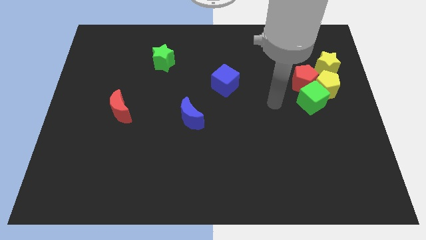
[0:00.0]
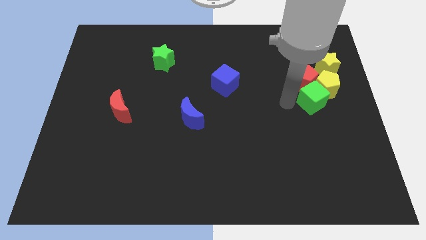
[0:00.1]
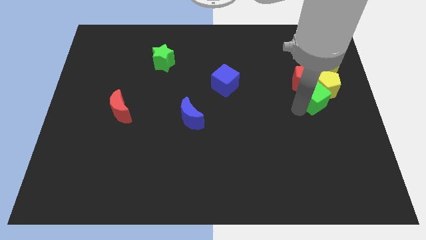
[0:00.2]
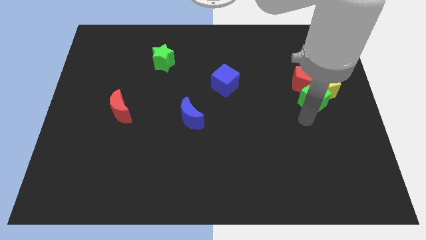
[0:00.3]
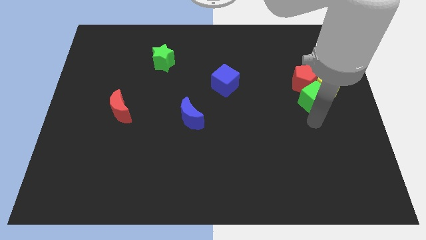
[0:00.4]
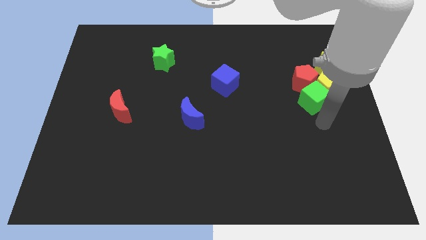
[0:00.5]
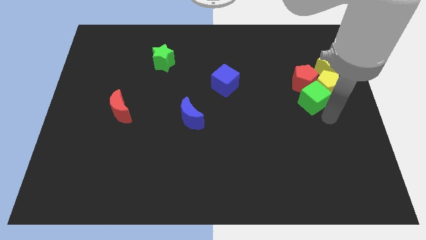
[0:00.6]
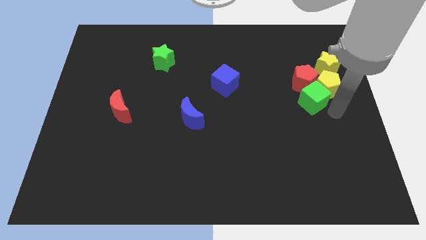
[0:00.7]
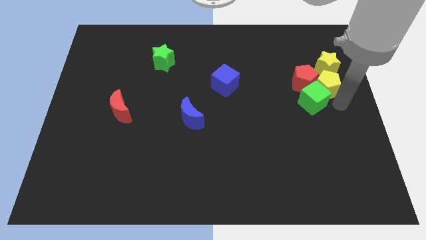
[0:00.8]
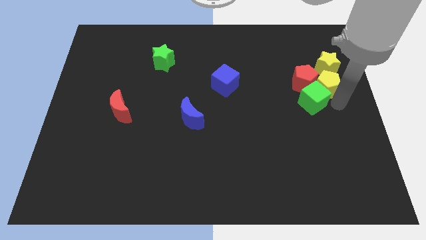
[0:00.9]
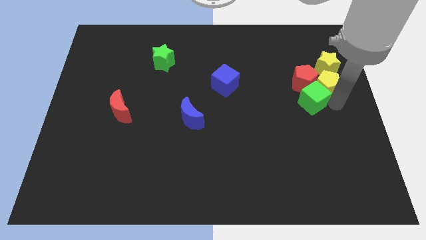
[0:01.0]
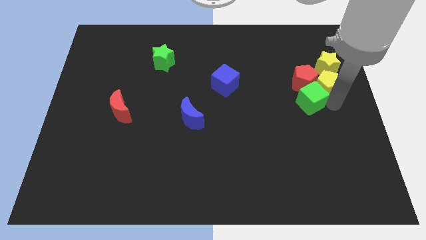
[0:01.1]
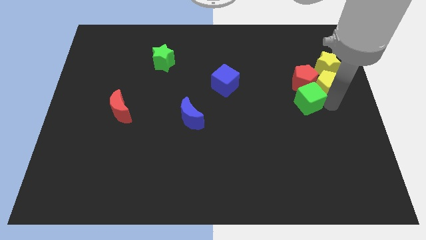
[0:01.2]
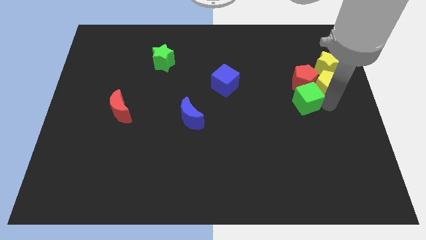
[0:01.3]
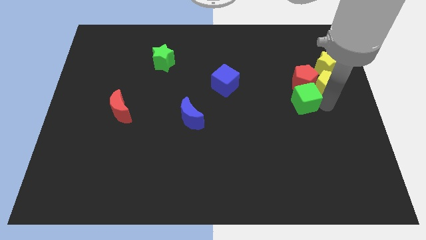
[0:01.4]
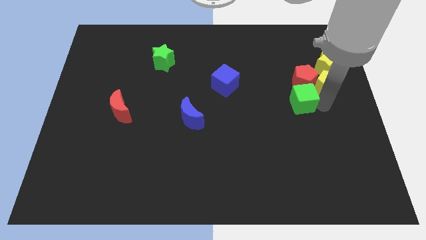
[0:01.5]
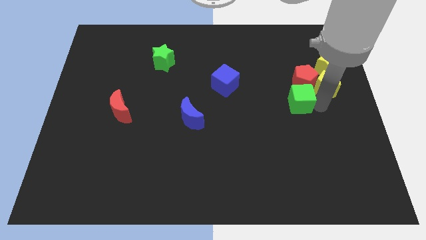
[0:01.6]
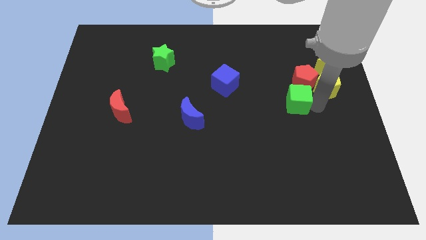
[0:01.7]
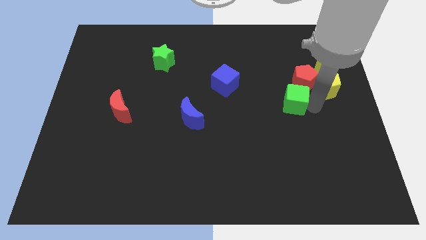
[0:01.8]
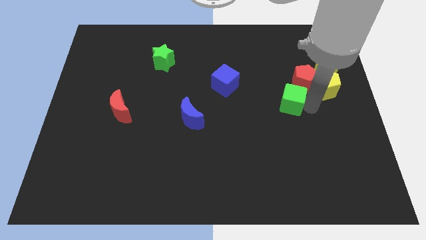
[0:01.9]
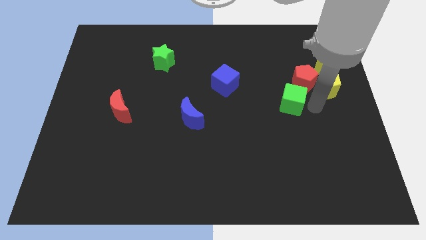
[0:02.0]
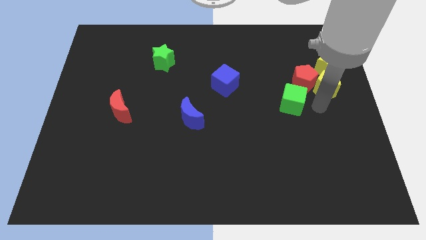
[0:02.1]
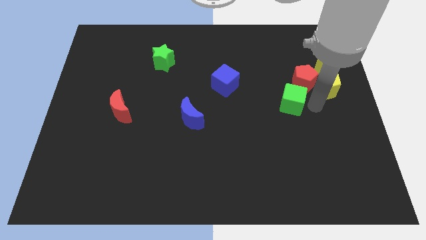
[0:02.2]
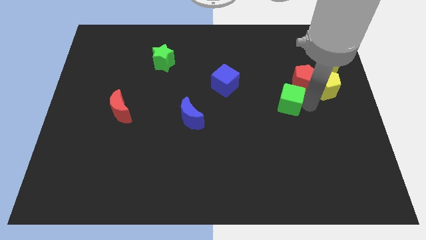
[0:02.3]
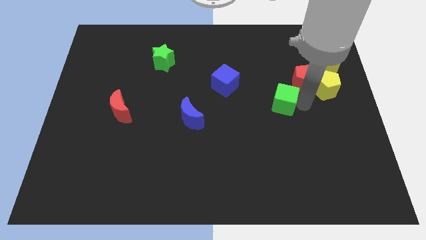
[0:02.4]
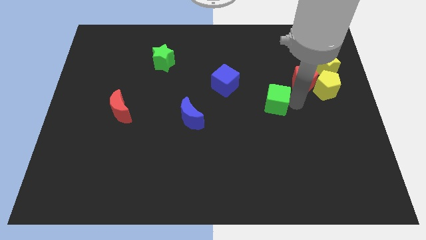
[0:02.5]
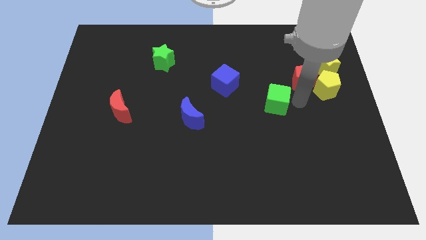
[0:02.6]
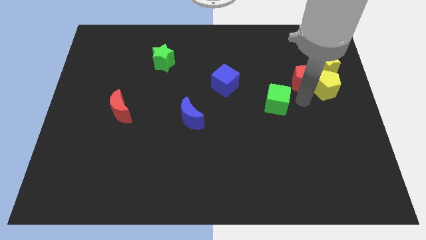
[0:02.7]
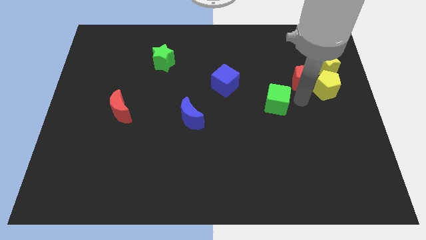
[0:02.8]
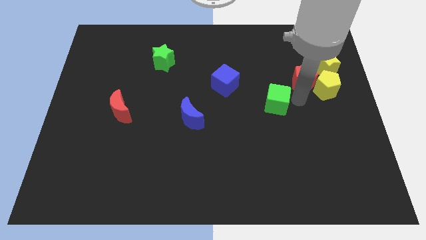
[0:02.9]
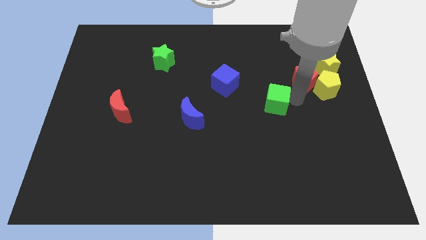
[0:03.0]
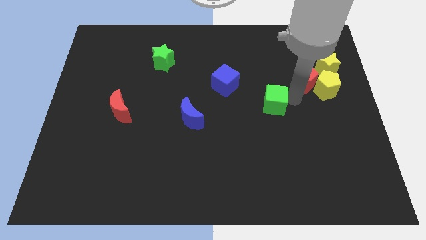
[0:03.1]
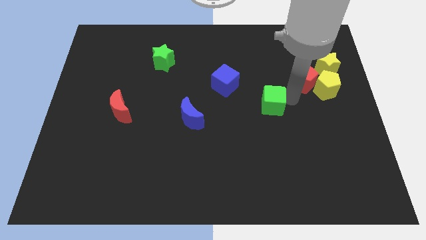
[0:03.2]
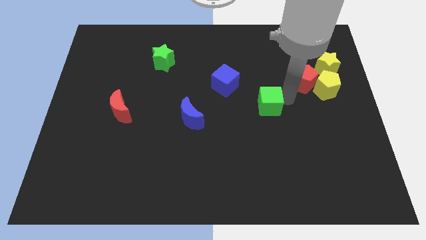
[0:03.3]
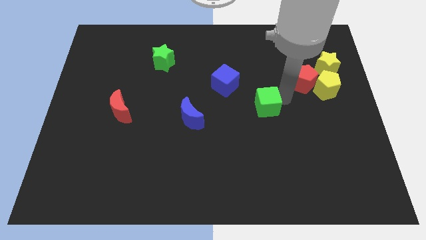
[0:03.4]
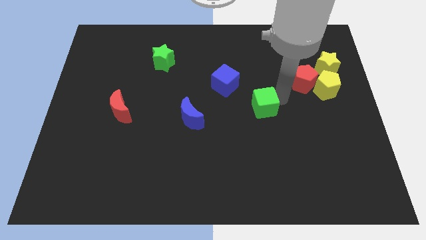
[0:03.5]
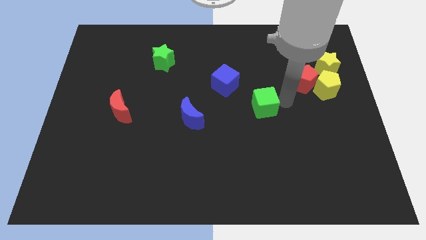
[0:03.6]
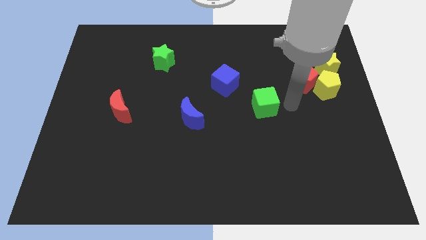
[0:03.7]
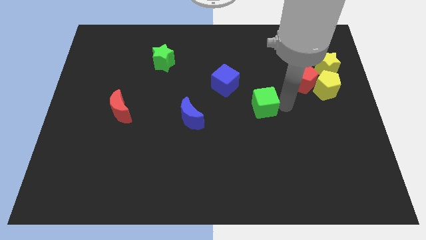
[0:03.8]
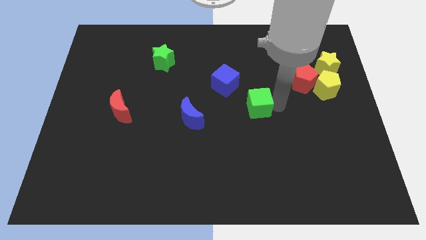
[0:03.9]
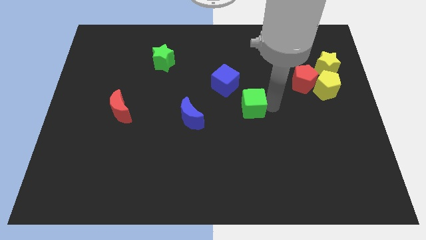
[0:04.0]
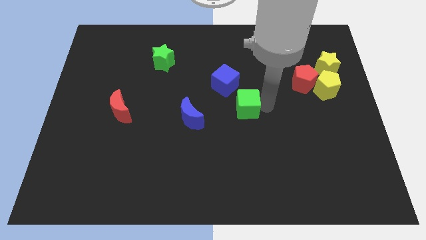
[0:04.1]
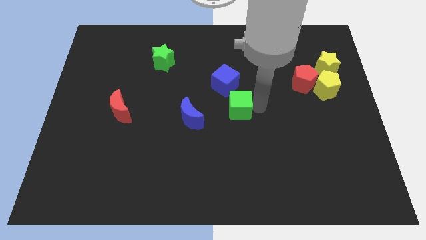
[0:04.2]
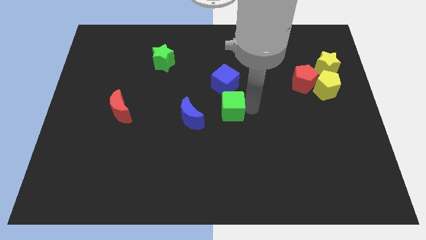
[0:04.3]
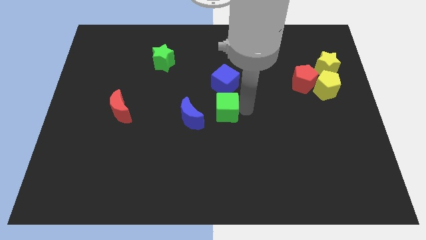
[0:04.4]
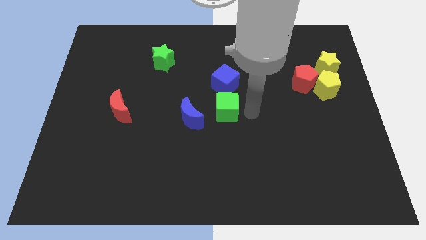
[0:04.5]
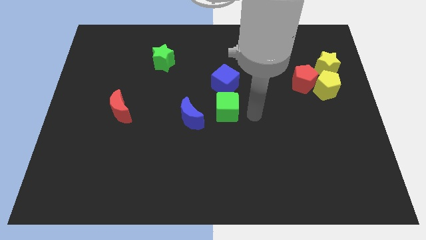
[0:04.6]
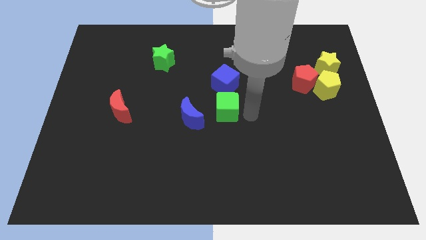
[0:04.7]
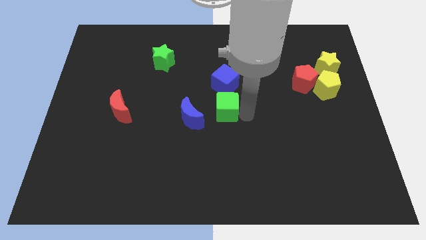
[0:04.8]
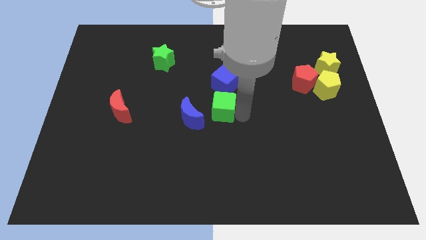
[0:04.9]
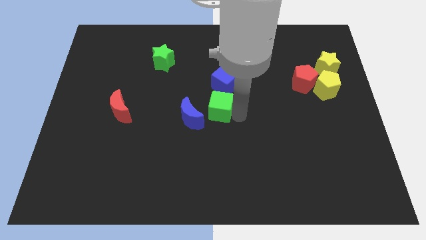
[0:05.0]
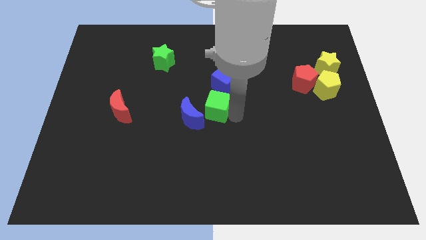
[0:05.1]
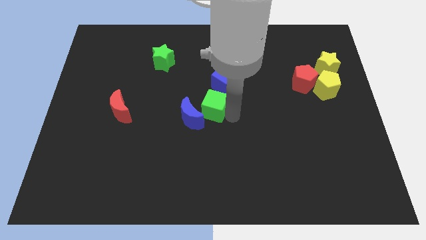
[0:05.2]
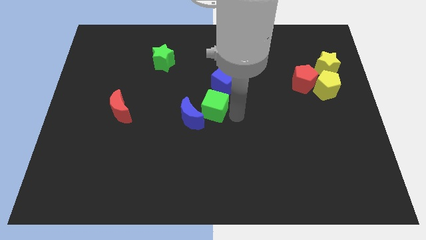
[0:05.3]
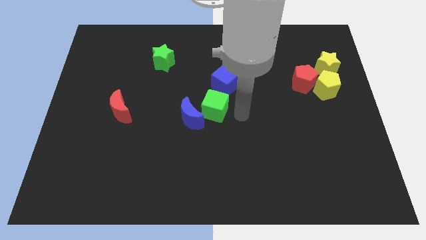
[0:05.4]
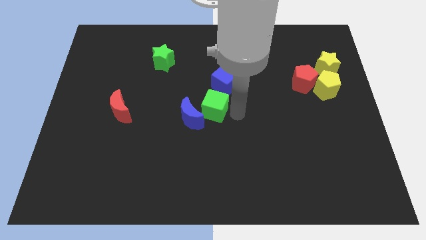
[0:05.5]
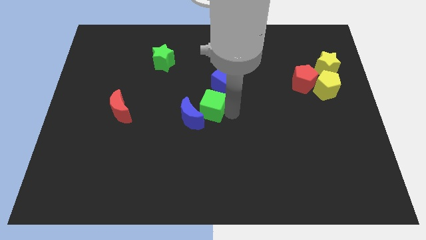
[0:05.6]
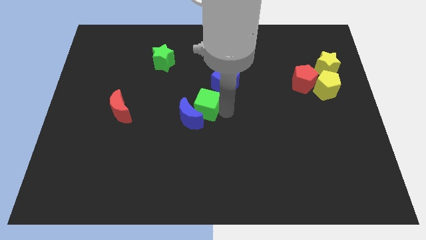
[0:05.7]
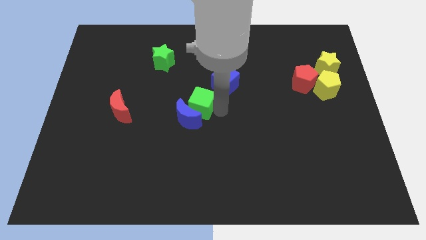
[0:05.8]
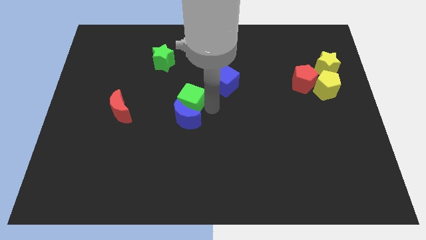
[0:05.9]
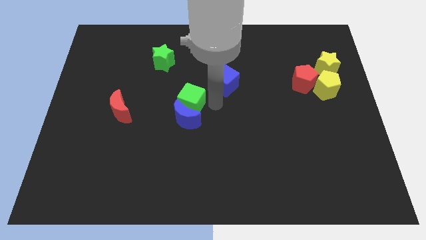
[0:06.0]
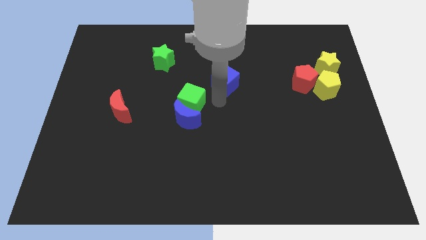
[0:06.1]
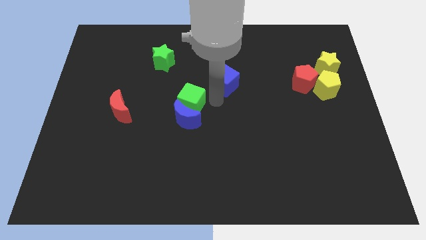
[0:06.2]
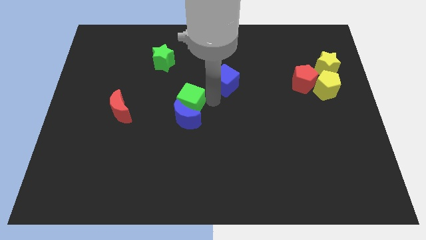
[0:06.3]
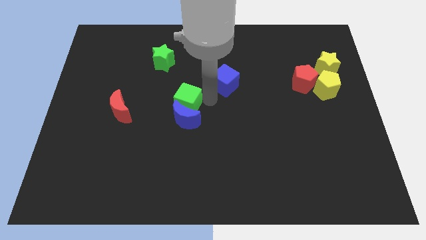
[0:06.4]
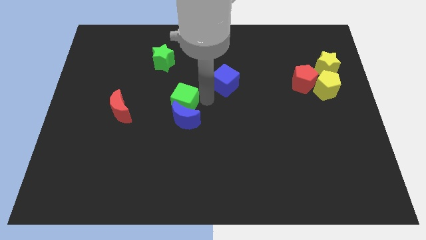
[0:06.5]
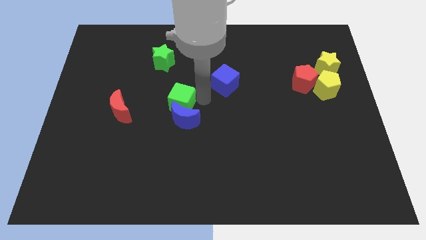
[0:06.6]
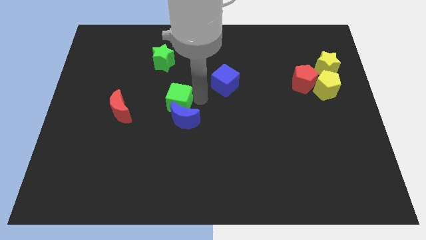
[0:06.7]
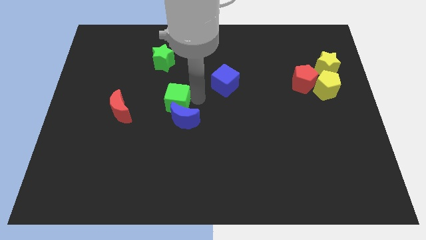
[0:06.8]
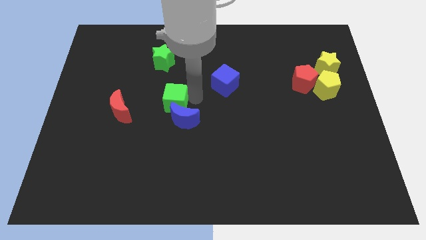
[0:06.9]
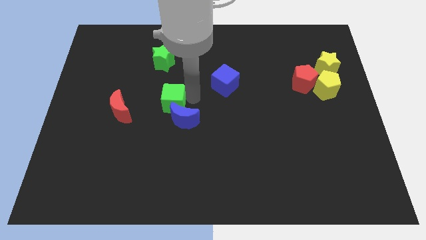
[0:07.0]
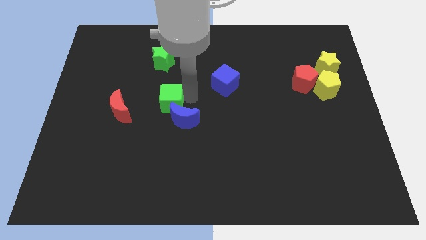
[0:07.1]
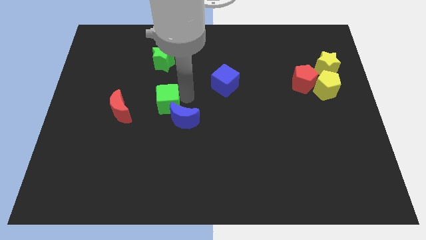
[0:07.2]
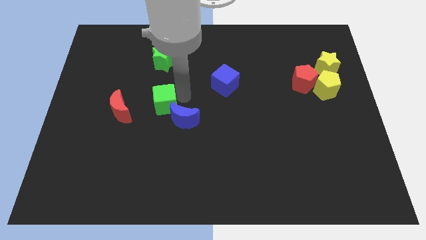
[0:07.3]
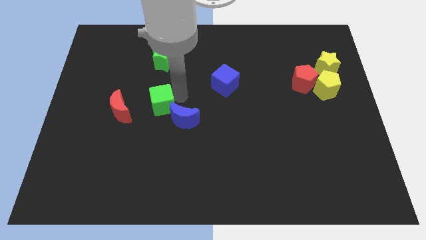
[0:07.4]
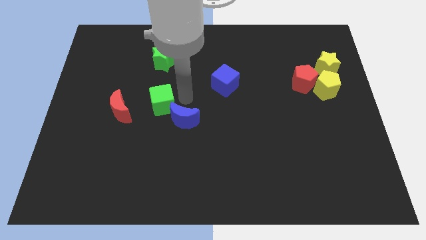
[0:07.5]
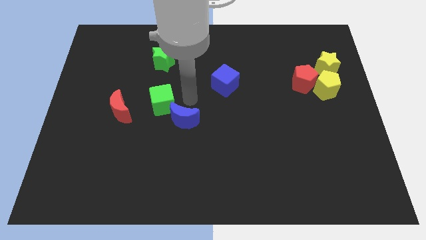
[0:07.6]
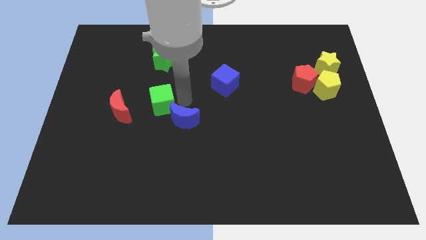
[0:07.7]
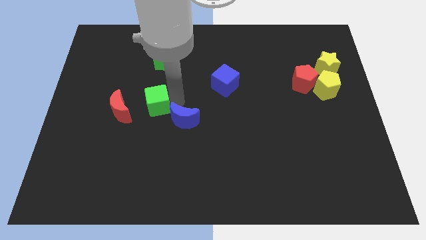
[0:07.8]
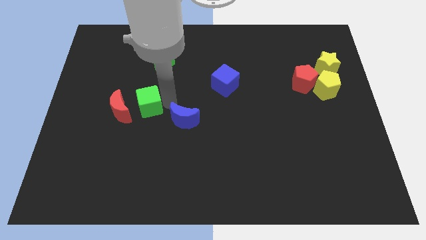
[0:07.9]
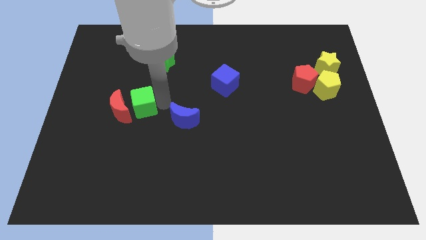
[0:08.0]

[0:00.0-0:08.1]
put the green cube next to the red moon
